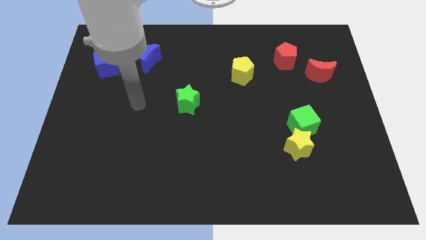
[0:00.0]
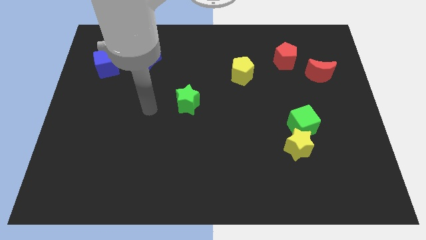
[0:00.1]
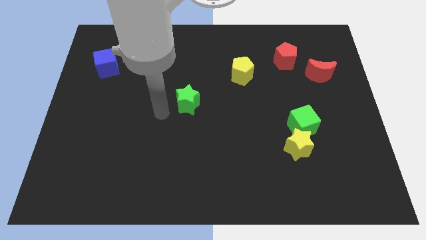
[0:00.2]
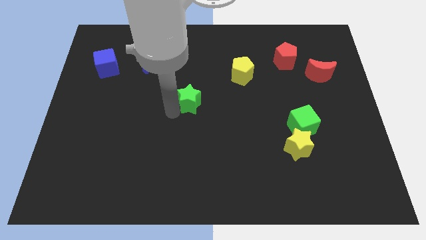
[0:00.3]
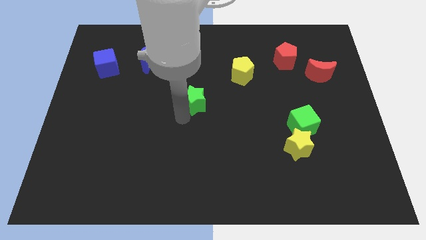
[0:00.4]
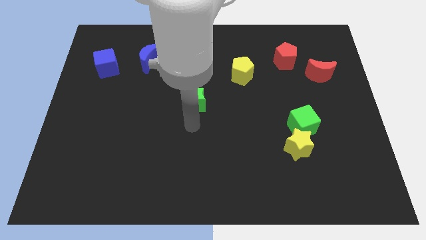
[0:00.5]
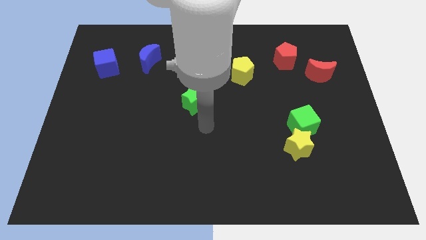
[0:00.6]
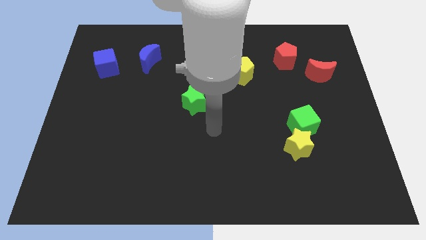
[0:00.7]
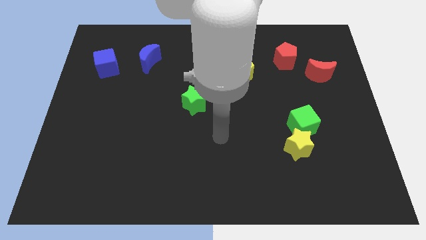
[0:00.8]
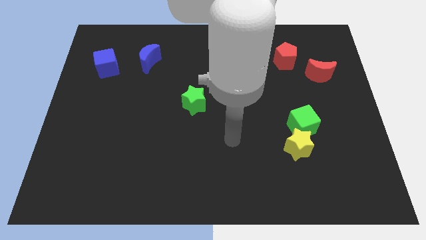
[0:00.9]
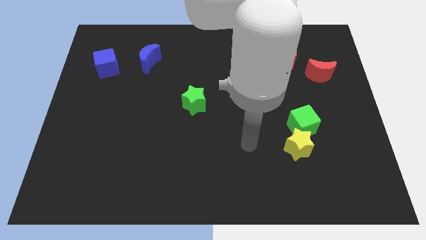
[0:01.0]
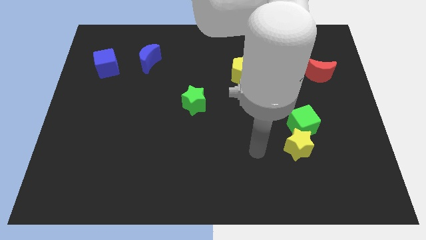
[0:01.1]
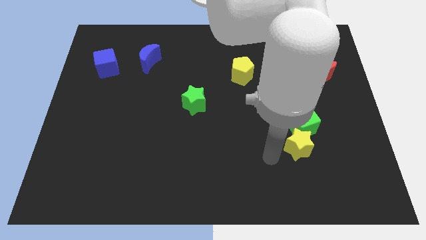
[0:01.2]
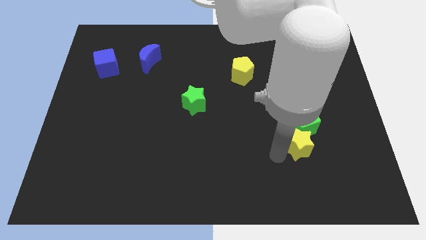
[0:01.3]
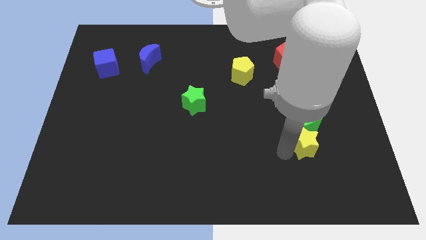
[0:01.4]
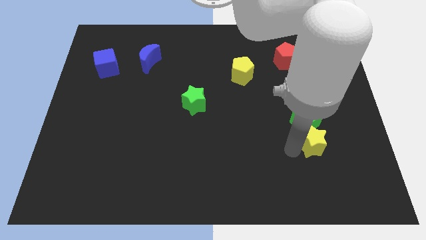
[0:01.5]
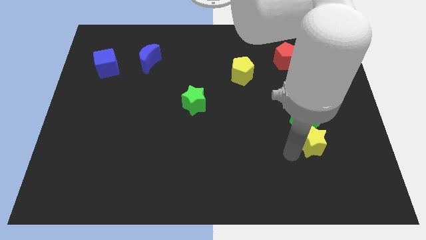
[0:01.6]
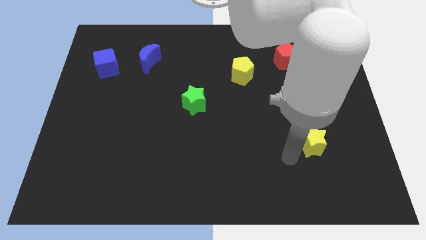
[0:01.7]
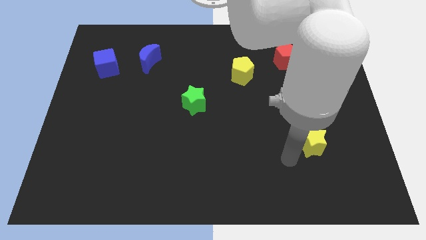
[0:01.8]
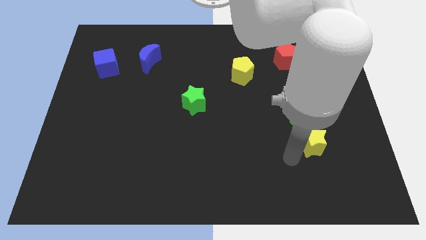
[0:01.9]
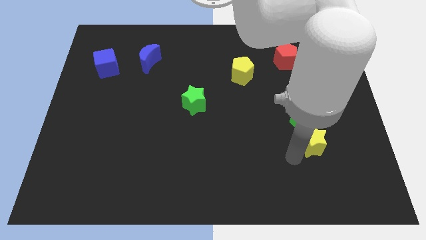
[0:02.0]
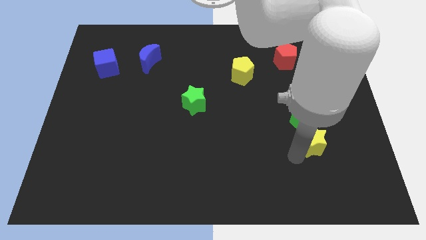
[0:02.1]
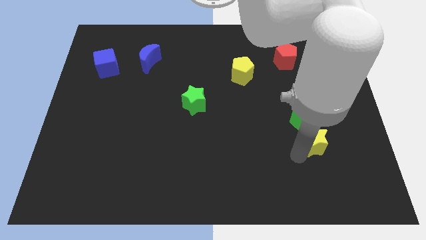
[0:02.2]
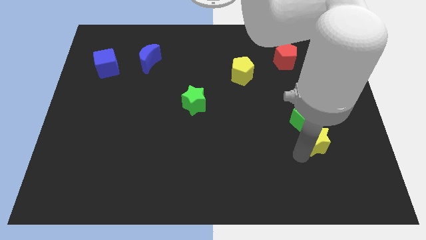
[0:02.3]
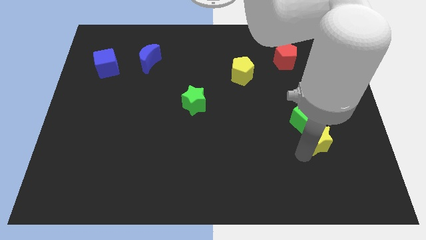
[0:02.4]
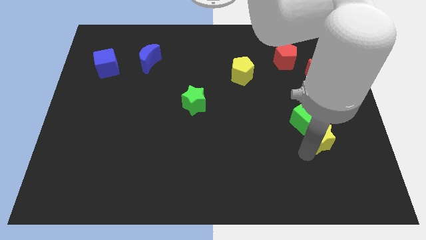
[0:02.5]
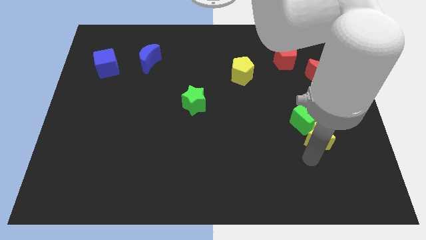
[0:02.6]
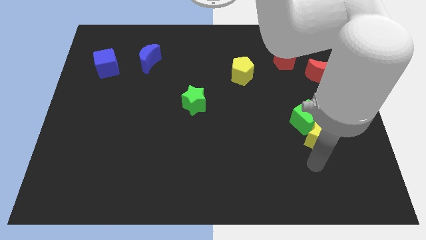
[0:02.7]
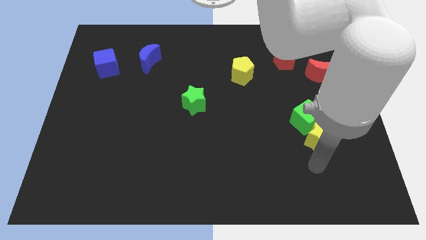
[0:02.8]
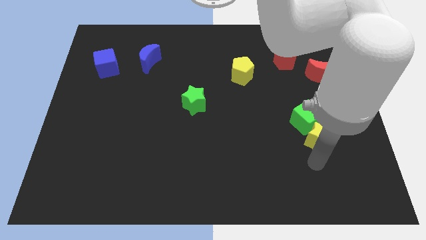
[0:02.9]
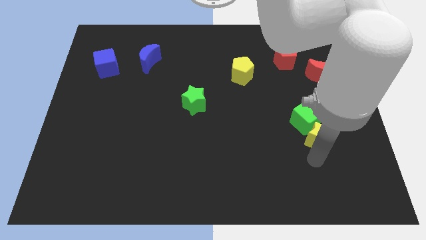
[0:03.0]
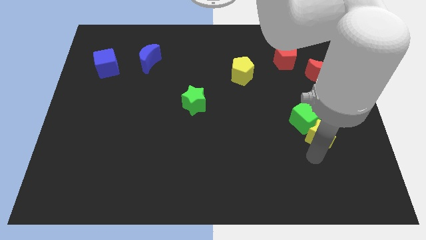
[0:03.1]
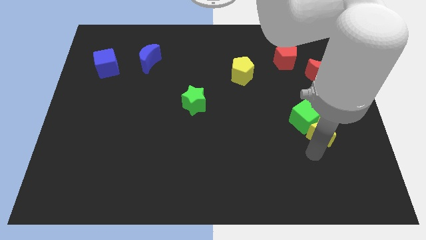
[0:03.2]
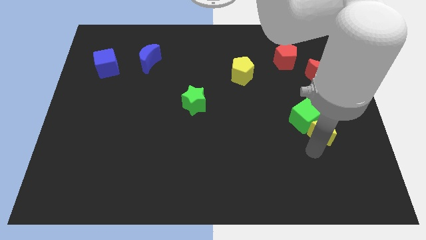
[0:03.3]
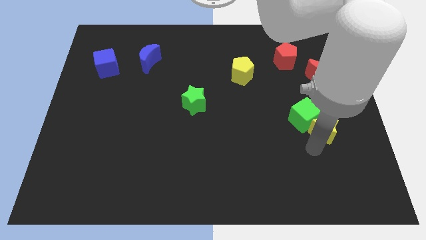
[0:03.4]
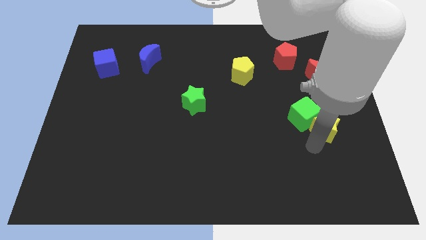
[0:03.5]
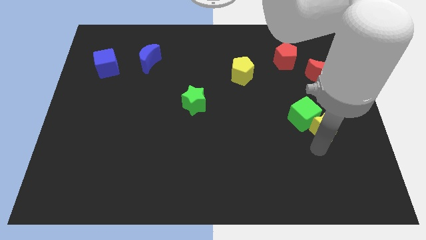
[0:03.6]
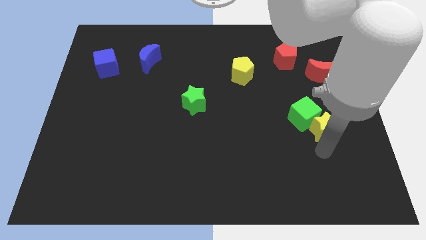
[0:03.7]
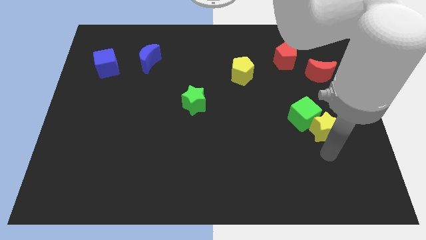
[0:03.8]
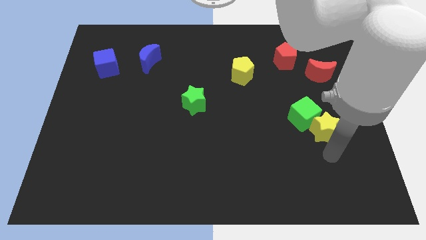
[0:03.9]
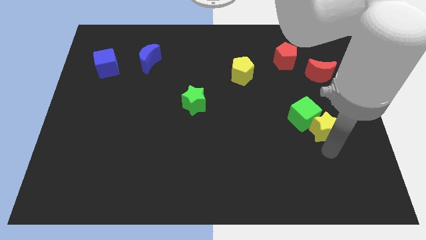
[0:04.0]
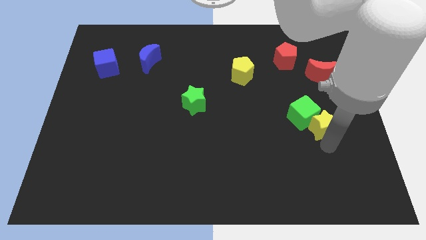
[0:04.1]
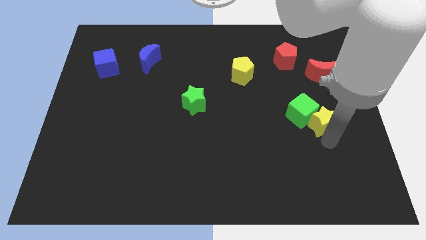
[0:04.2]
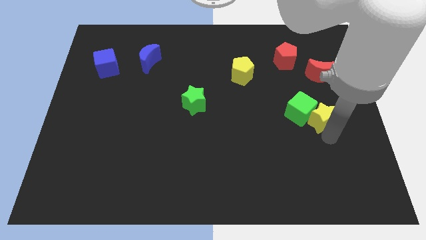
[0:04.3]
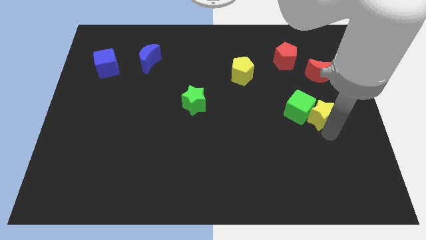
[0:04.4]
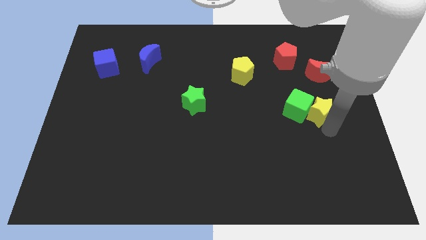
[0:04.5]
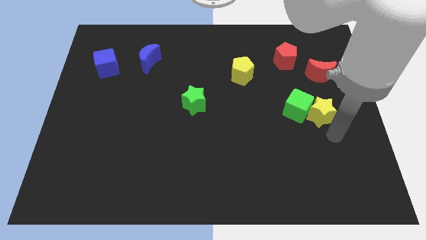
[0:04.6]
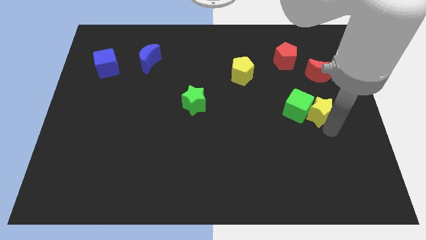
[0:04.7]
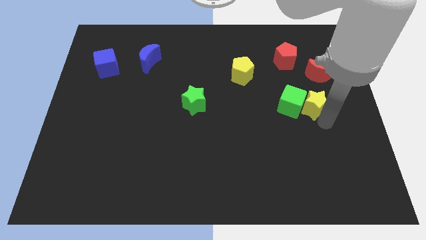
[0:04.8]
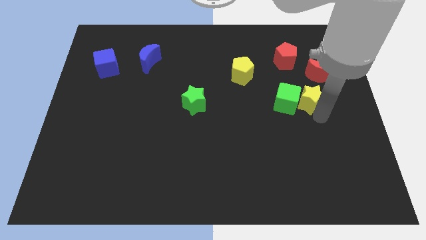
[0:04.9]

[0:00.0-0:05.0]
move the yellow star to the bottom left of the red moon

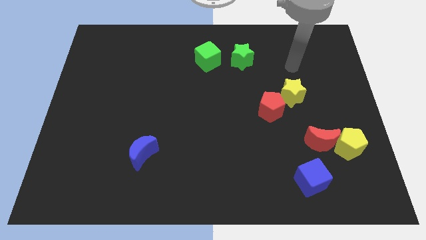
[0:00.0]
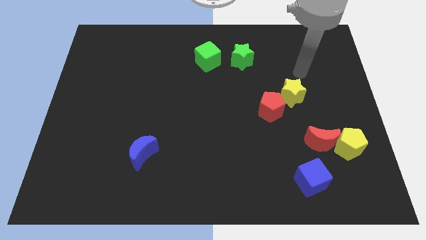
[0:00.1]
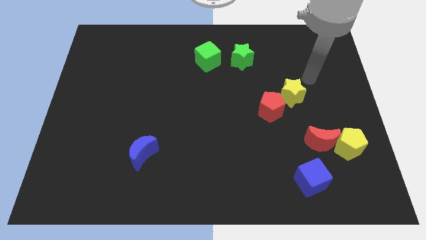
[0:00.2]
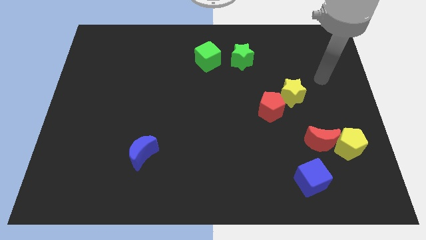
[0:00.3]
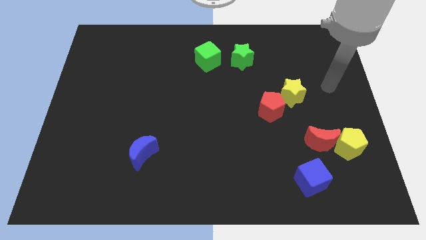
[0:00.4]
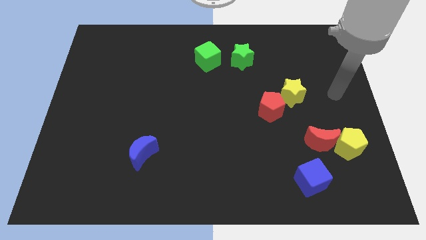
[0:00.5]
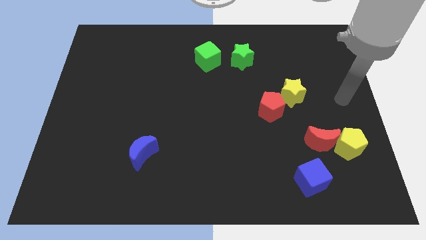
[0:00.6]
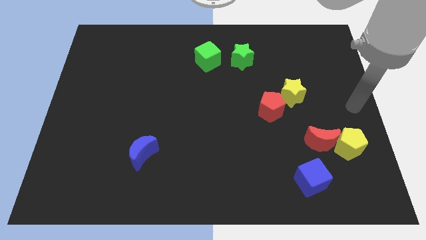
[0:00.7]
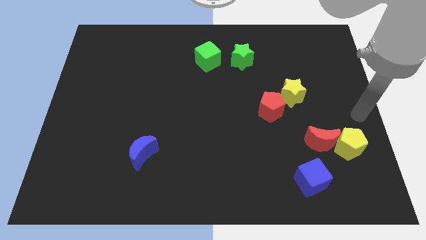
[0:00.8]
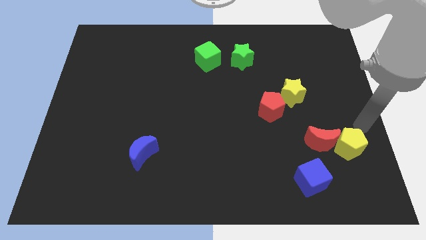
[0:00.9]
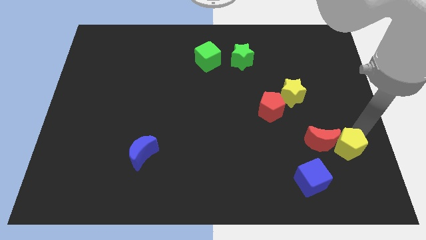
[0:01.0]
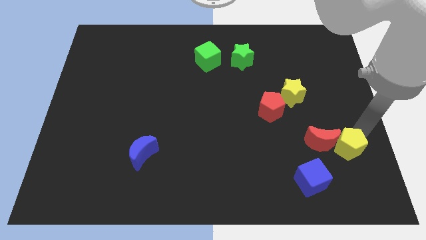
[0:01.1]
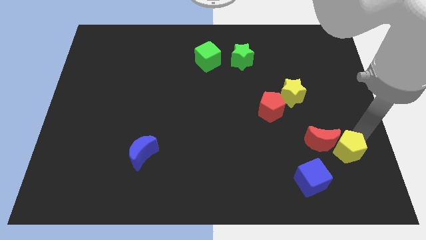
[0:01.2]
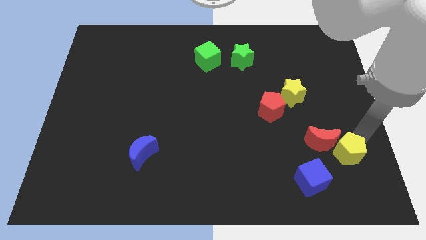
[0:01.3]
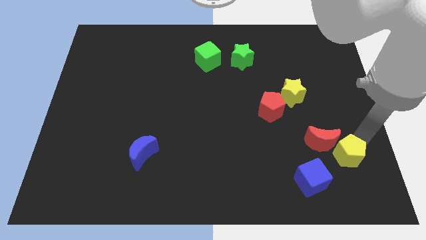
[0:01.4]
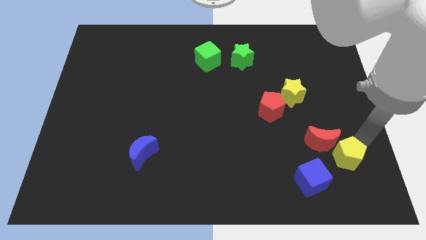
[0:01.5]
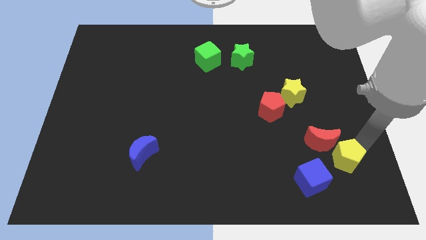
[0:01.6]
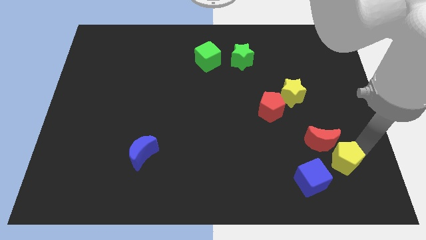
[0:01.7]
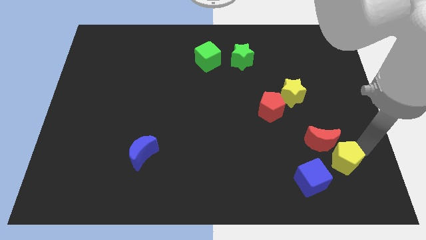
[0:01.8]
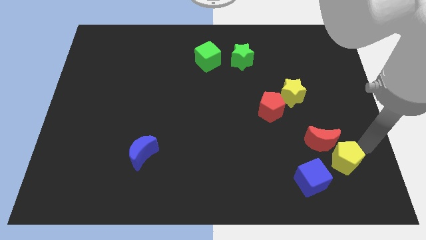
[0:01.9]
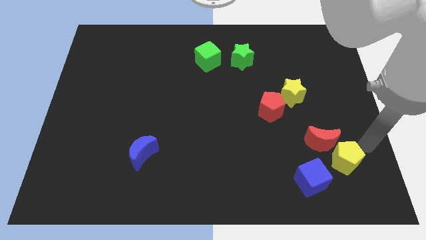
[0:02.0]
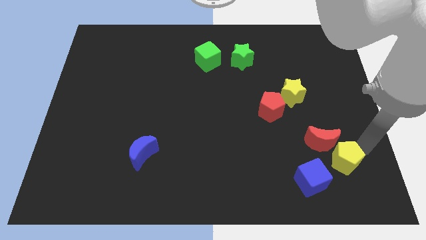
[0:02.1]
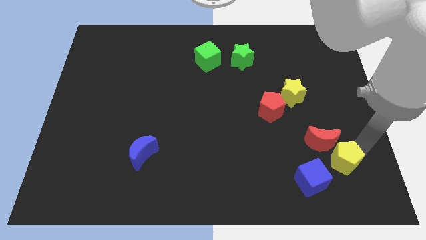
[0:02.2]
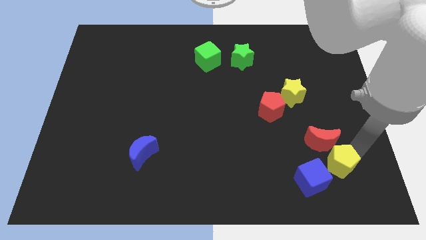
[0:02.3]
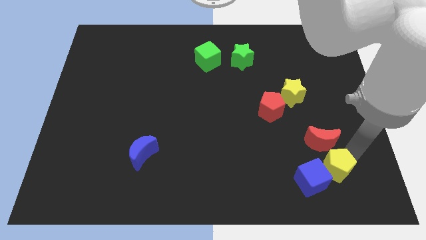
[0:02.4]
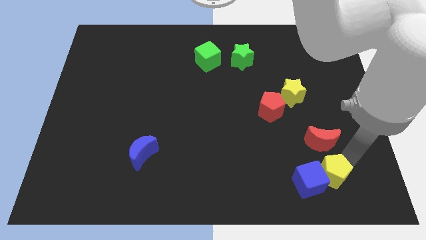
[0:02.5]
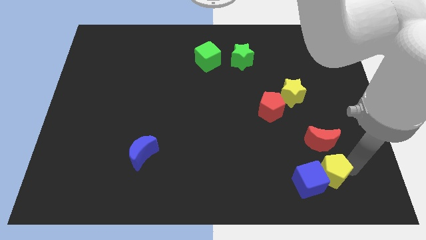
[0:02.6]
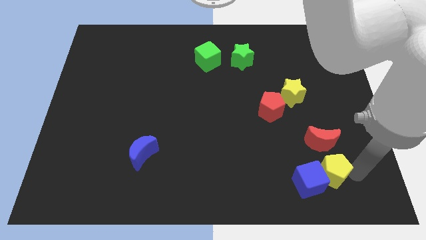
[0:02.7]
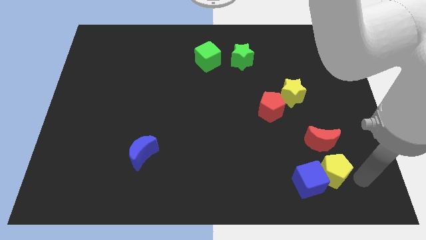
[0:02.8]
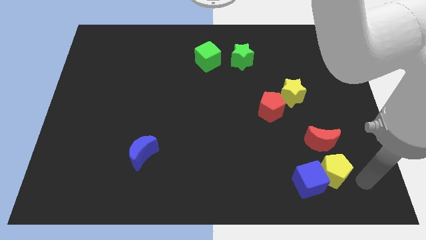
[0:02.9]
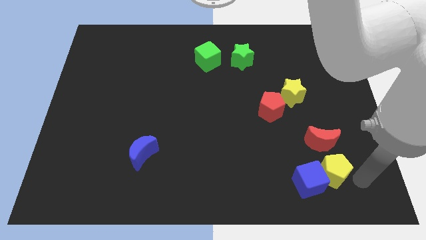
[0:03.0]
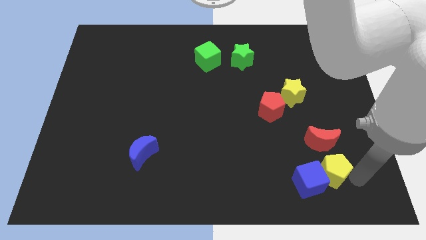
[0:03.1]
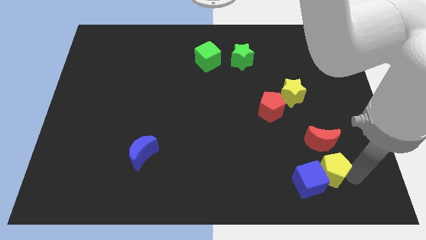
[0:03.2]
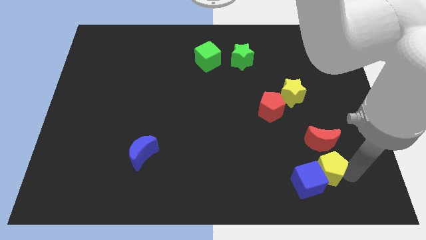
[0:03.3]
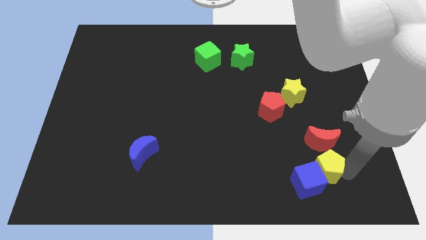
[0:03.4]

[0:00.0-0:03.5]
push the yellow pentagon to the bottom left of the red moon

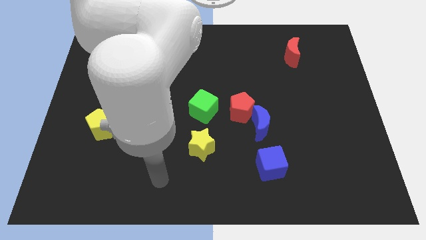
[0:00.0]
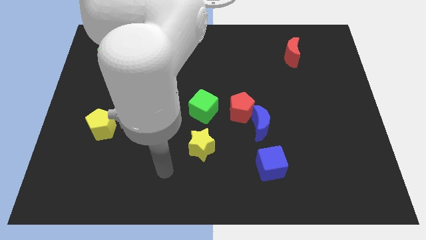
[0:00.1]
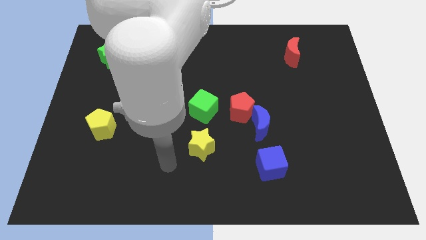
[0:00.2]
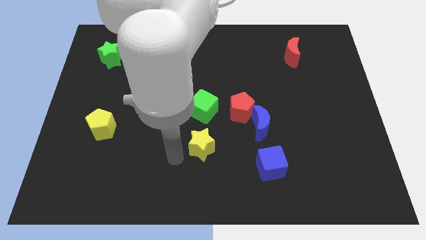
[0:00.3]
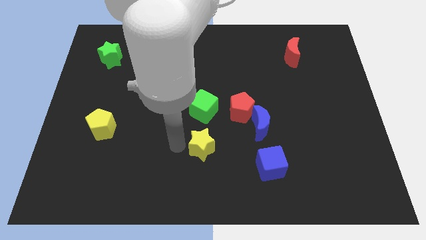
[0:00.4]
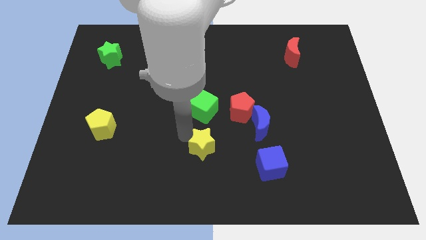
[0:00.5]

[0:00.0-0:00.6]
put the red pentagon to the top right side of the yellow star
